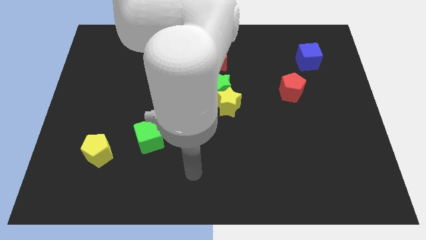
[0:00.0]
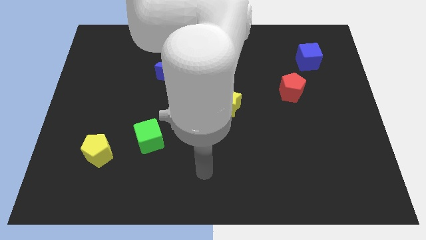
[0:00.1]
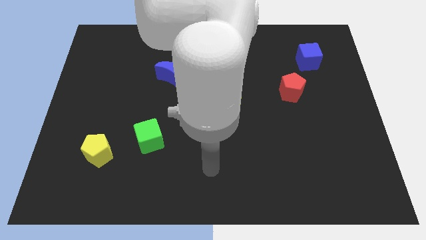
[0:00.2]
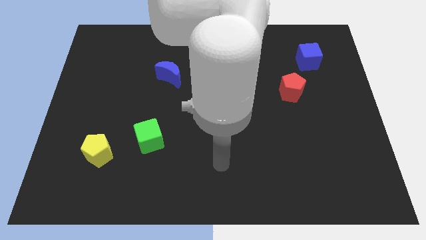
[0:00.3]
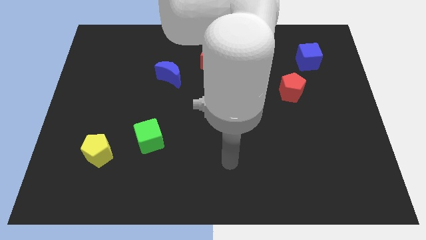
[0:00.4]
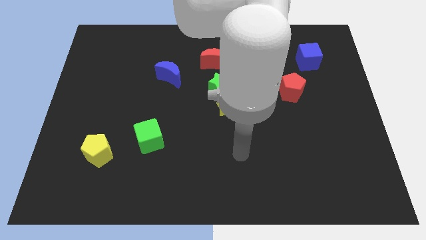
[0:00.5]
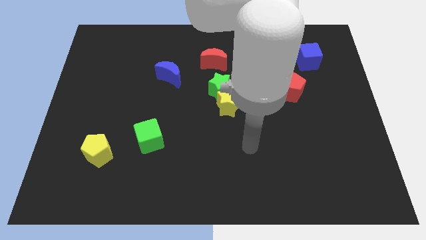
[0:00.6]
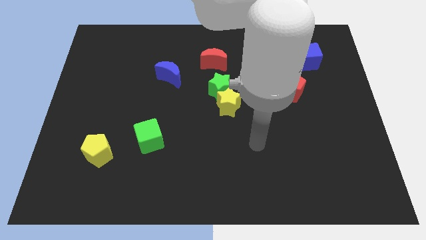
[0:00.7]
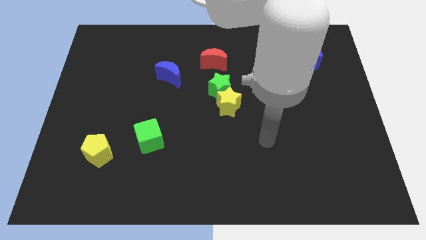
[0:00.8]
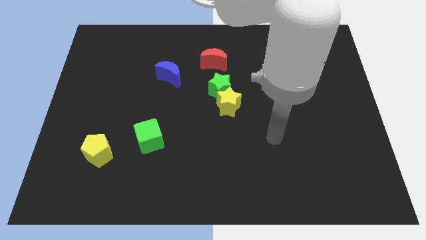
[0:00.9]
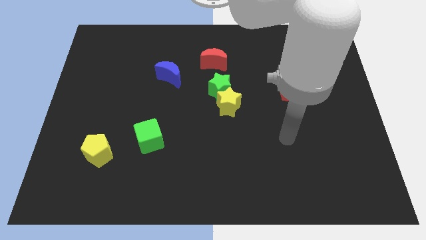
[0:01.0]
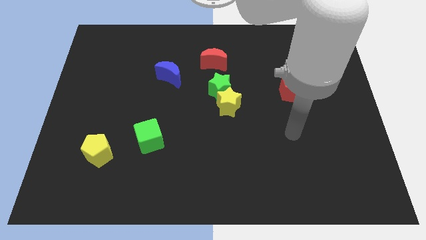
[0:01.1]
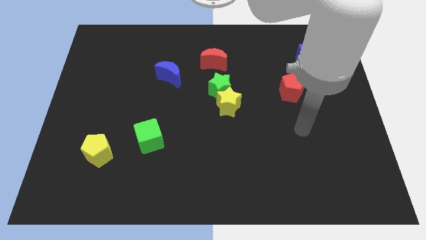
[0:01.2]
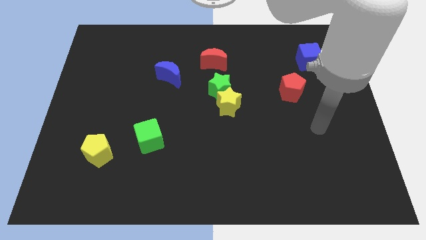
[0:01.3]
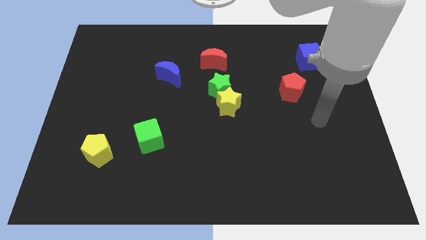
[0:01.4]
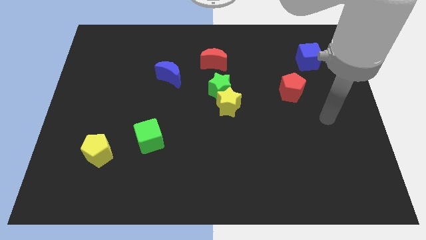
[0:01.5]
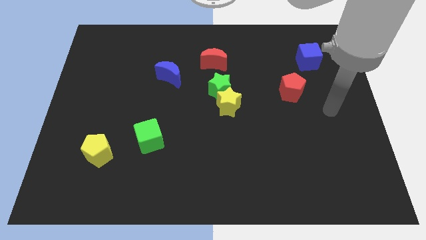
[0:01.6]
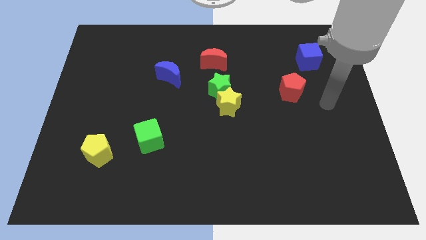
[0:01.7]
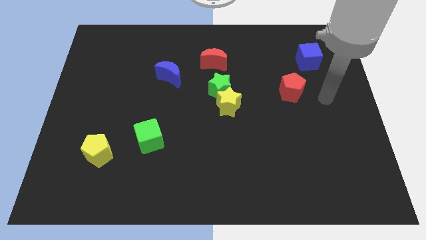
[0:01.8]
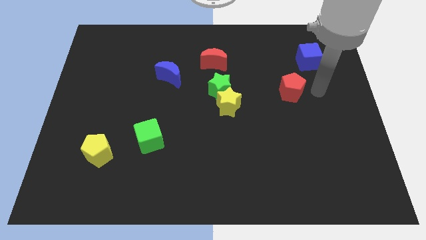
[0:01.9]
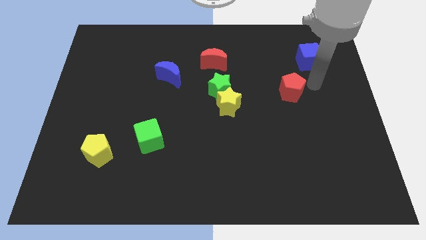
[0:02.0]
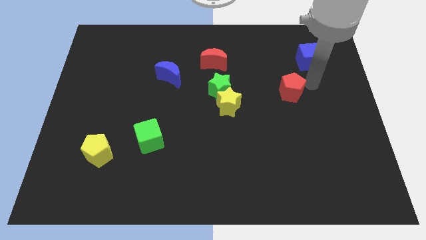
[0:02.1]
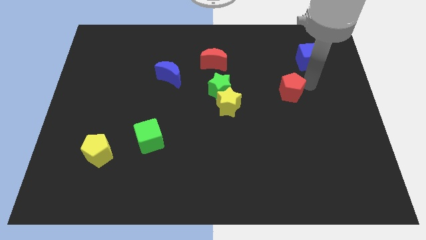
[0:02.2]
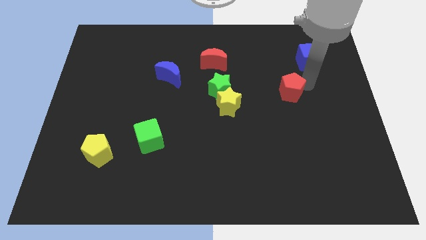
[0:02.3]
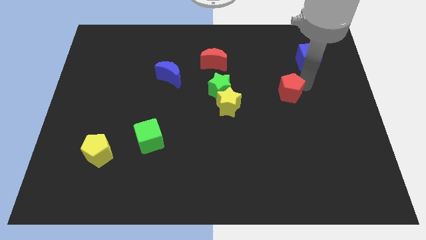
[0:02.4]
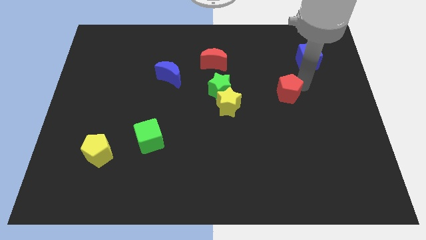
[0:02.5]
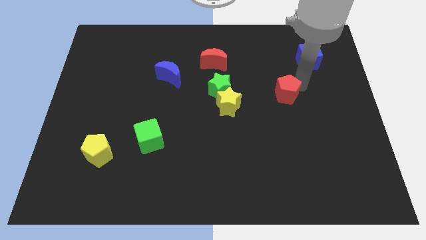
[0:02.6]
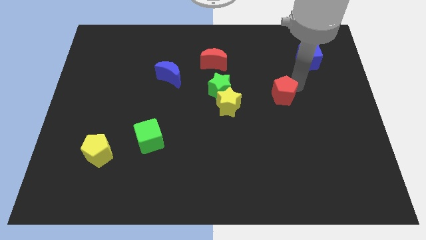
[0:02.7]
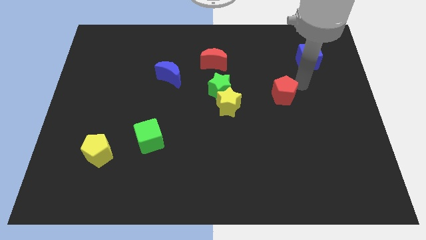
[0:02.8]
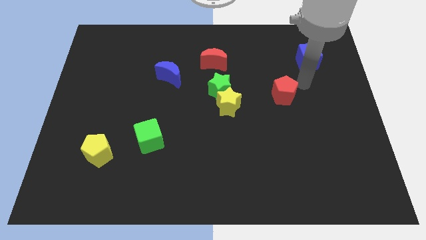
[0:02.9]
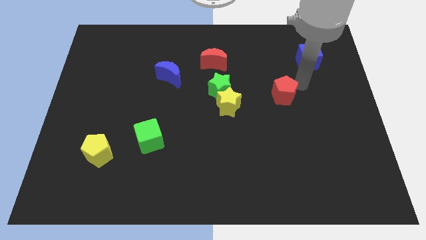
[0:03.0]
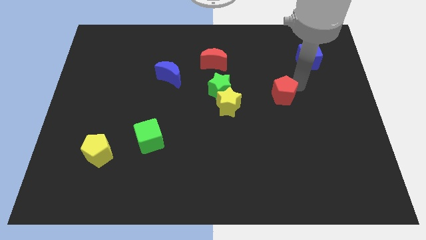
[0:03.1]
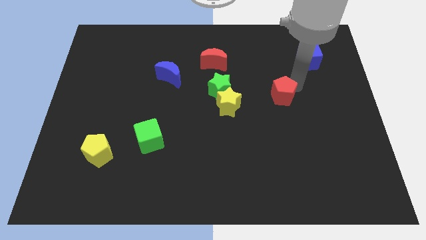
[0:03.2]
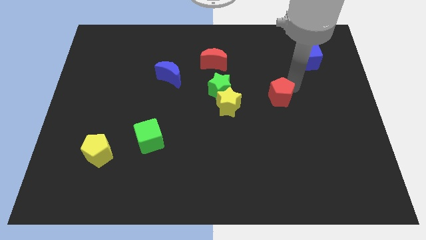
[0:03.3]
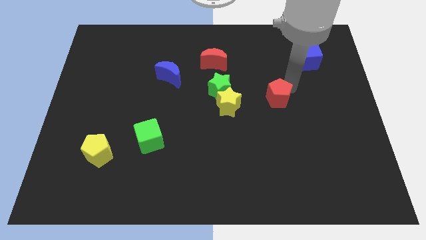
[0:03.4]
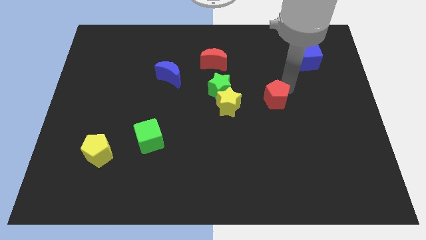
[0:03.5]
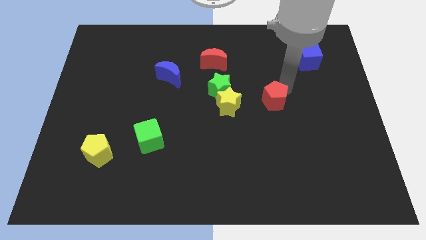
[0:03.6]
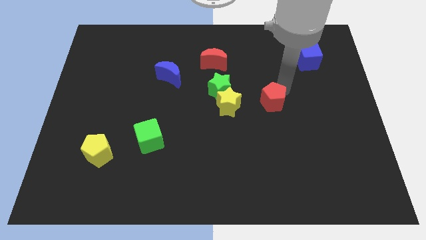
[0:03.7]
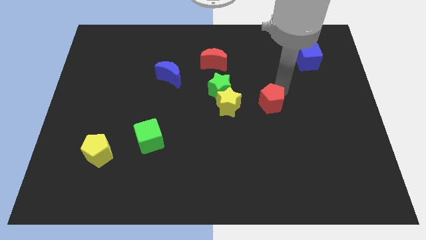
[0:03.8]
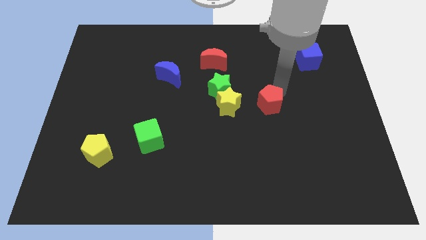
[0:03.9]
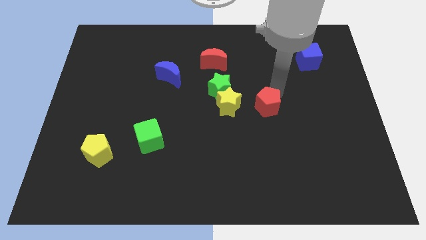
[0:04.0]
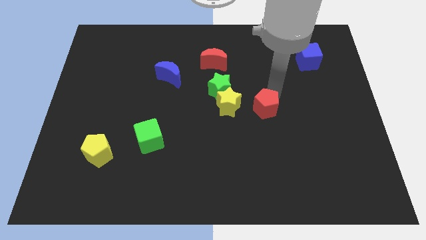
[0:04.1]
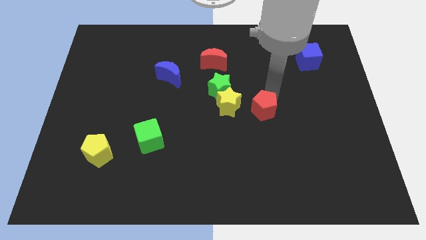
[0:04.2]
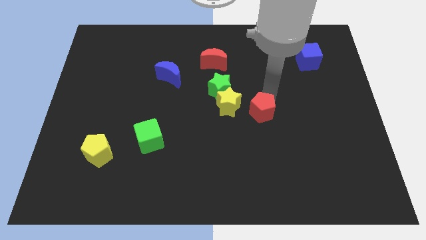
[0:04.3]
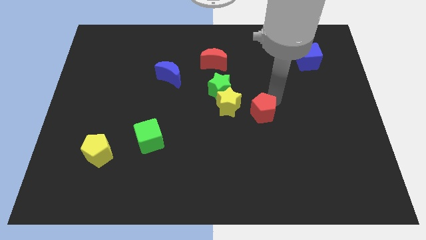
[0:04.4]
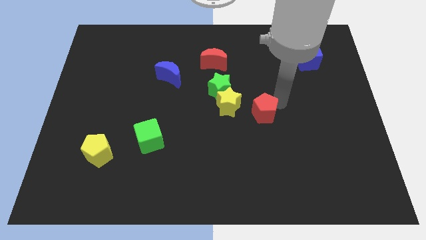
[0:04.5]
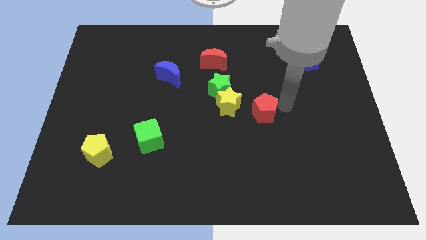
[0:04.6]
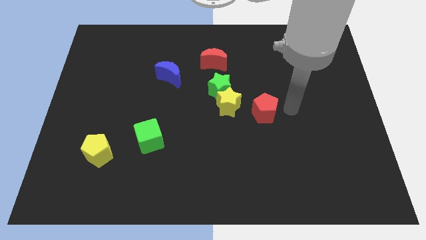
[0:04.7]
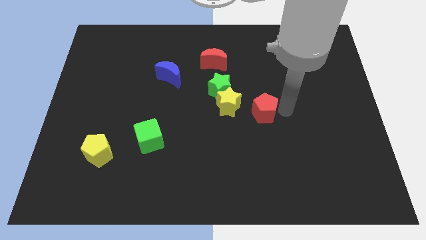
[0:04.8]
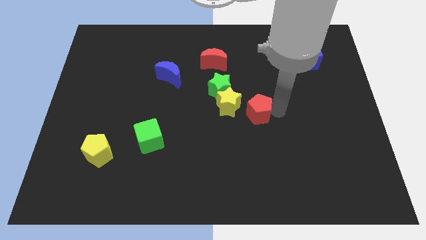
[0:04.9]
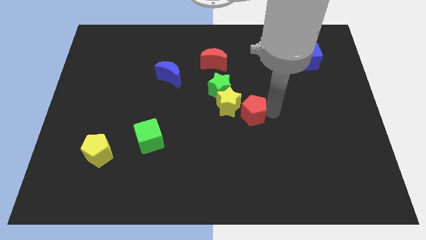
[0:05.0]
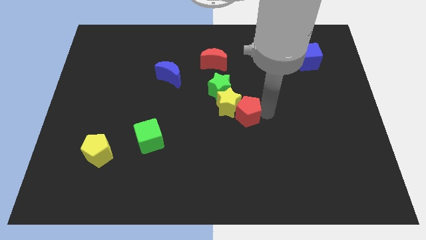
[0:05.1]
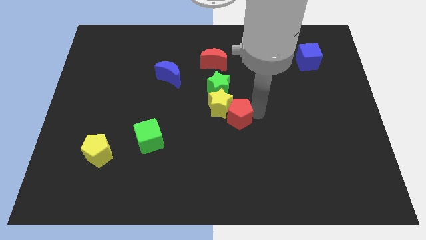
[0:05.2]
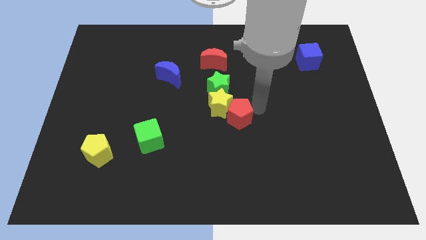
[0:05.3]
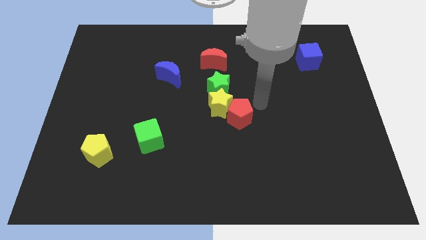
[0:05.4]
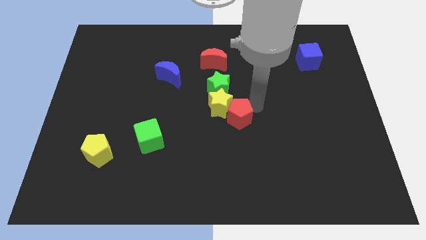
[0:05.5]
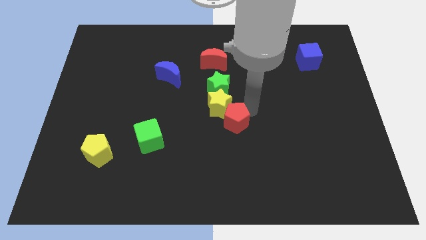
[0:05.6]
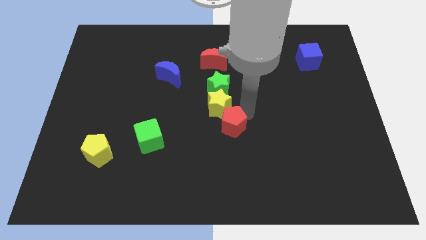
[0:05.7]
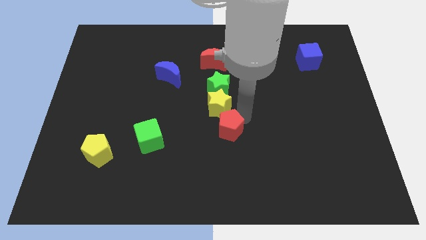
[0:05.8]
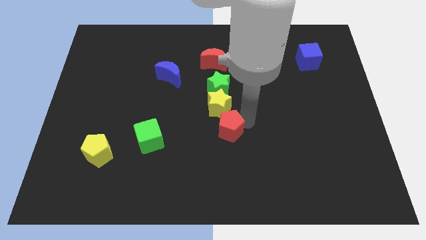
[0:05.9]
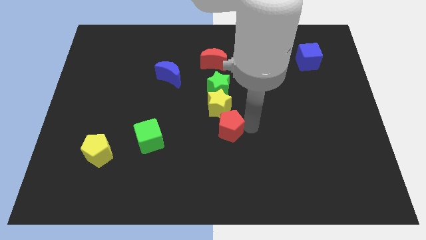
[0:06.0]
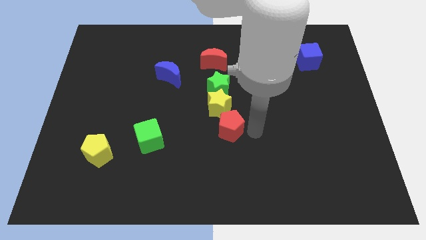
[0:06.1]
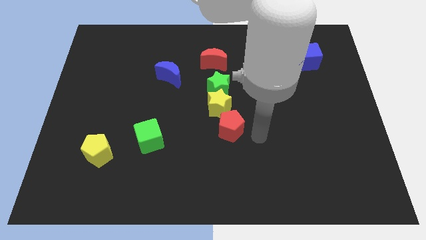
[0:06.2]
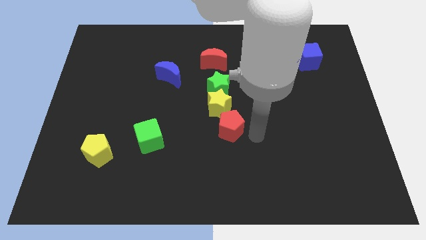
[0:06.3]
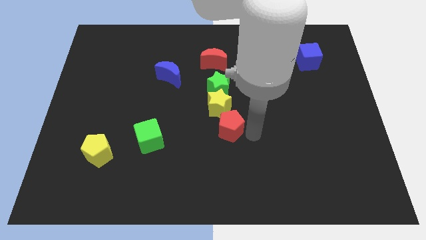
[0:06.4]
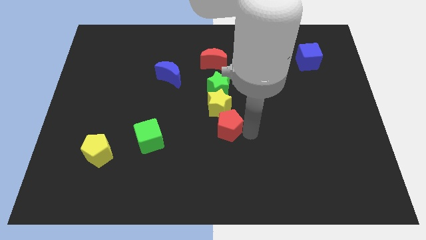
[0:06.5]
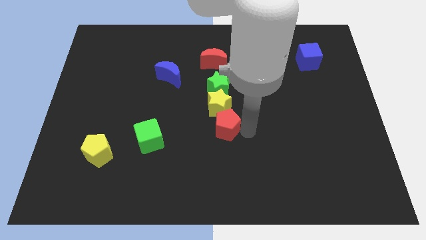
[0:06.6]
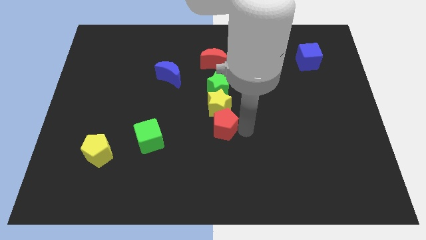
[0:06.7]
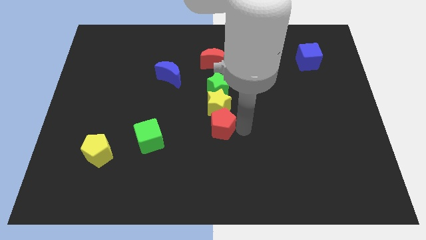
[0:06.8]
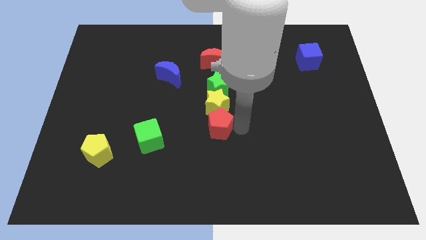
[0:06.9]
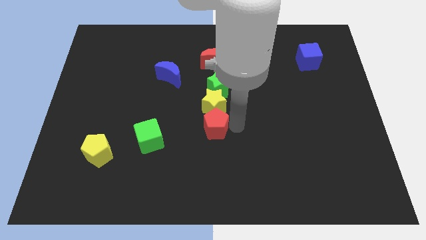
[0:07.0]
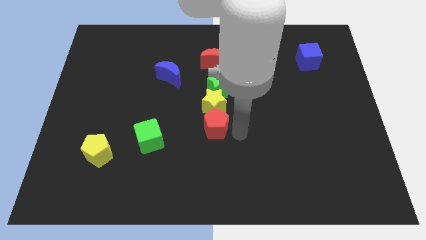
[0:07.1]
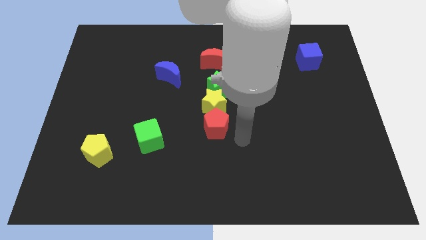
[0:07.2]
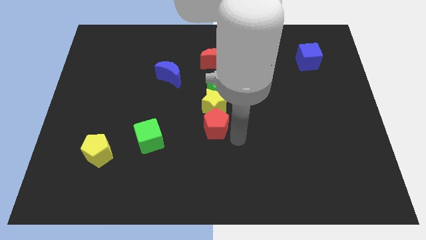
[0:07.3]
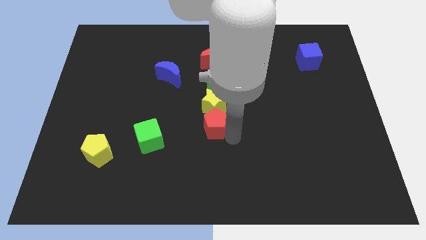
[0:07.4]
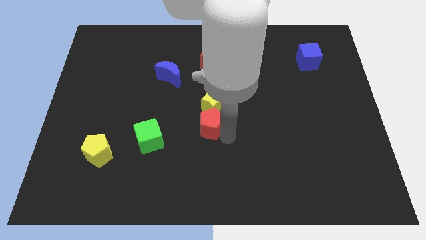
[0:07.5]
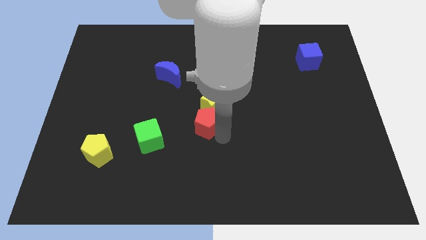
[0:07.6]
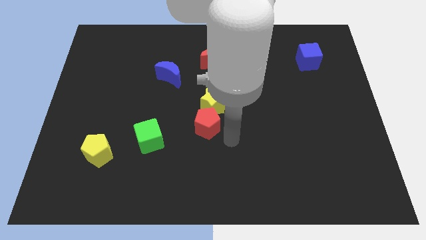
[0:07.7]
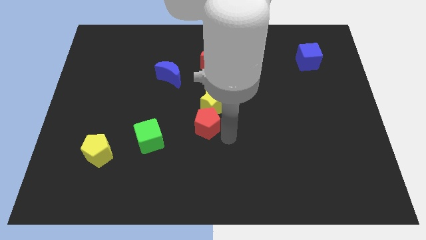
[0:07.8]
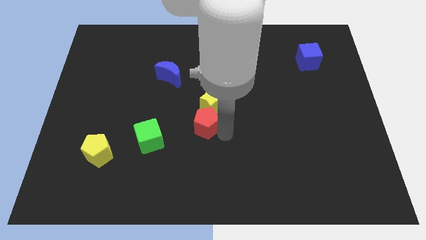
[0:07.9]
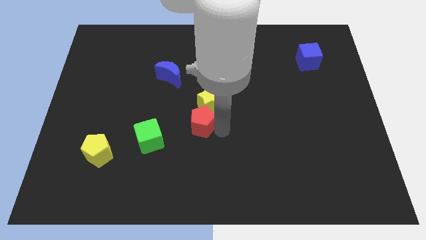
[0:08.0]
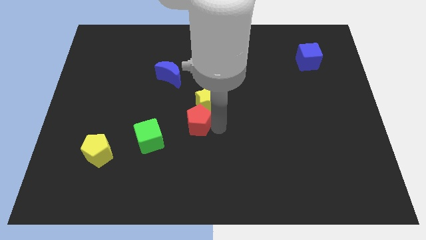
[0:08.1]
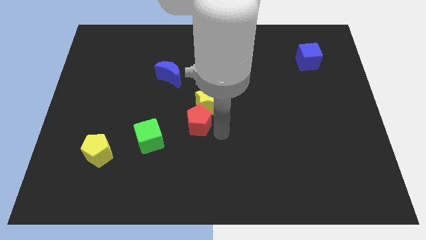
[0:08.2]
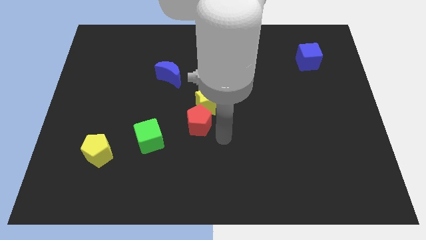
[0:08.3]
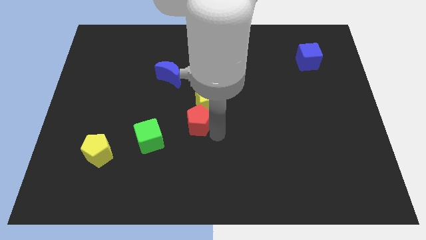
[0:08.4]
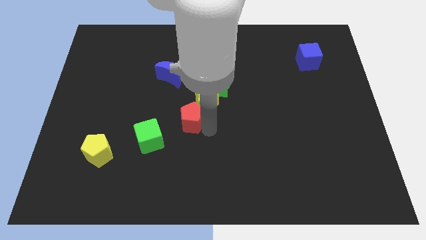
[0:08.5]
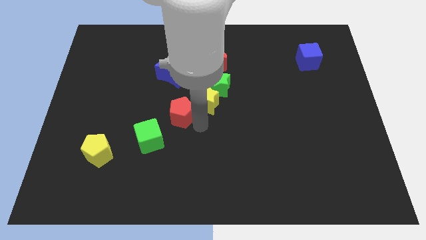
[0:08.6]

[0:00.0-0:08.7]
put the red pentagon to the left side of the yellow star
